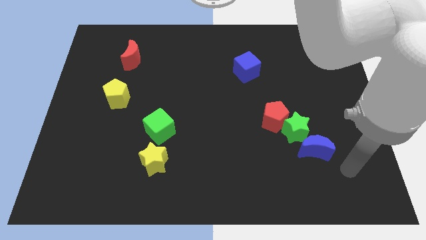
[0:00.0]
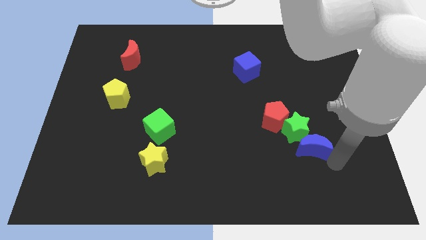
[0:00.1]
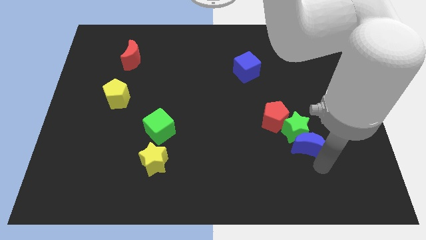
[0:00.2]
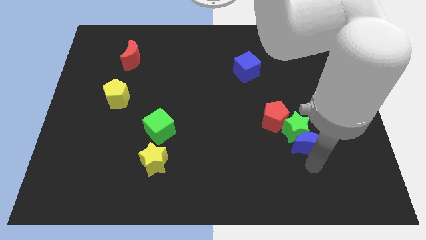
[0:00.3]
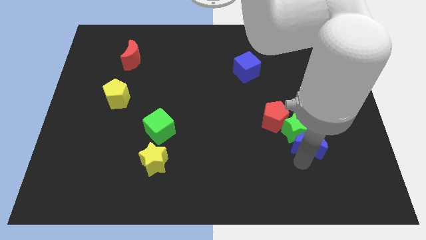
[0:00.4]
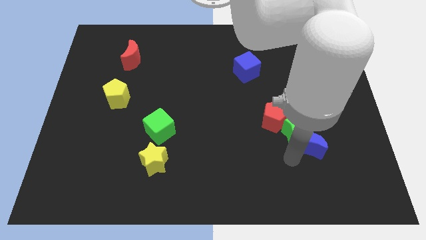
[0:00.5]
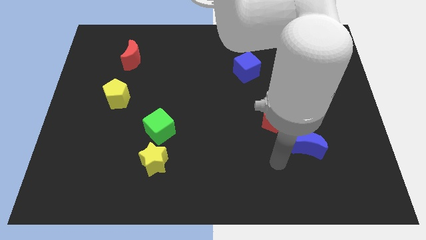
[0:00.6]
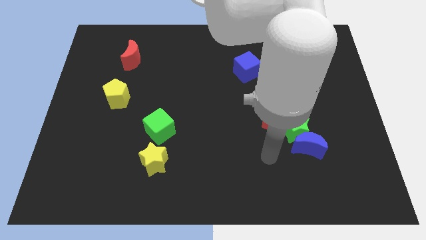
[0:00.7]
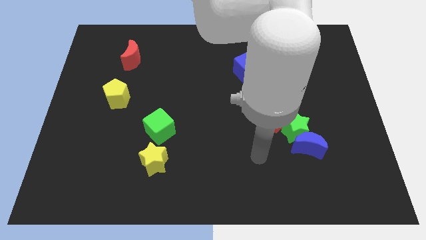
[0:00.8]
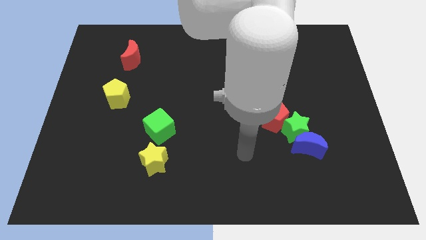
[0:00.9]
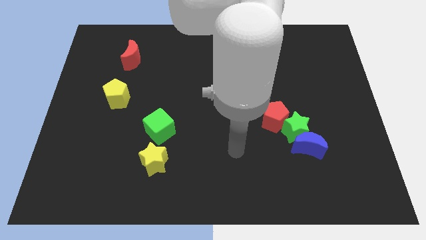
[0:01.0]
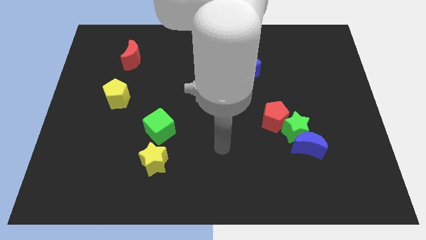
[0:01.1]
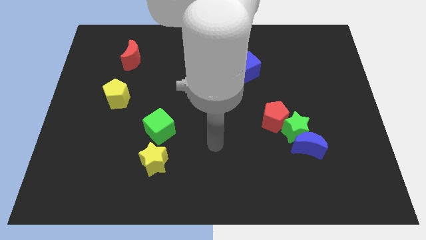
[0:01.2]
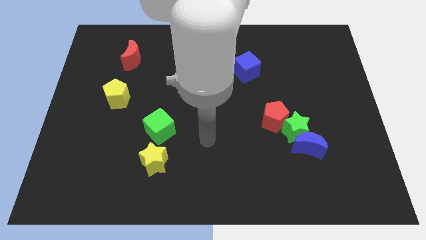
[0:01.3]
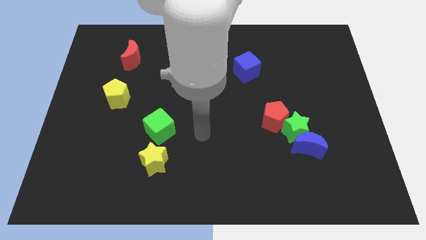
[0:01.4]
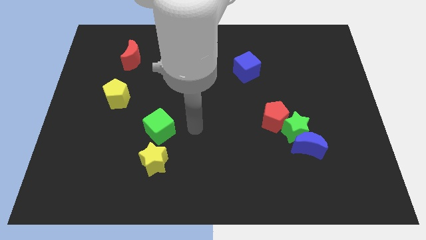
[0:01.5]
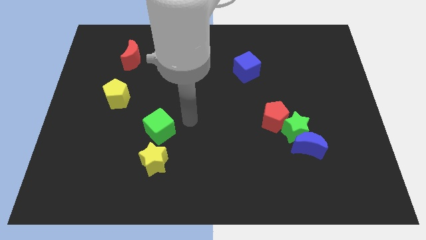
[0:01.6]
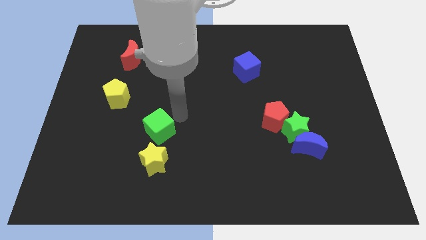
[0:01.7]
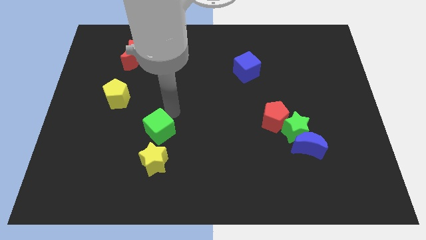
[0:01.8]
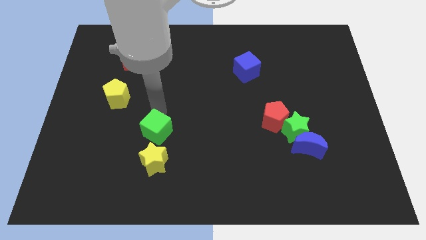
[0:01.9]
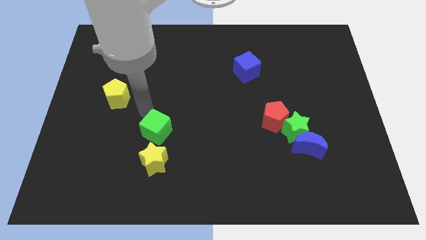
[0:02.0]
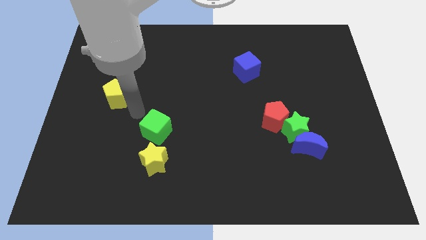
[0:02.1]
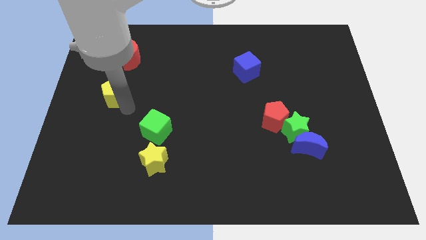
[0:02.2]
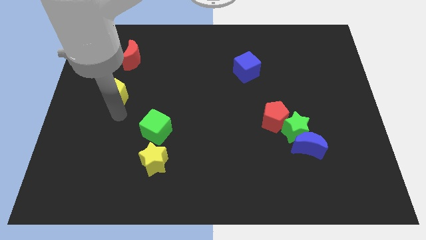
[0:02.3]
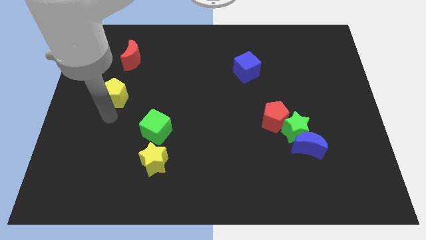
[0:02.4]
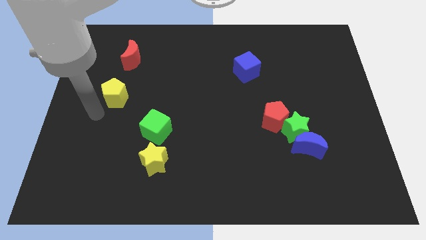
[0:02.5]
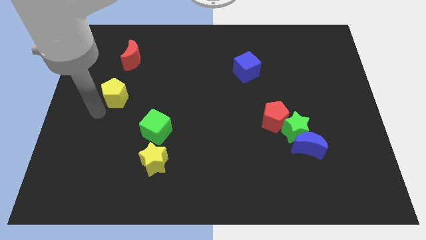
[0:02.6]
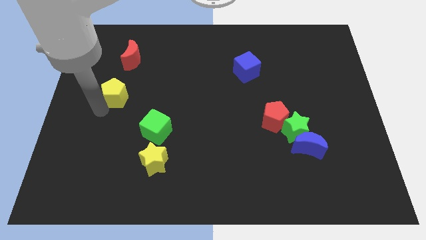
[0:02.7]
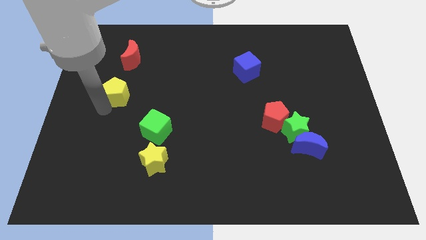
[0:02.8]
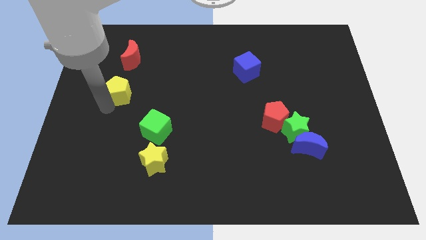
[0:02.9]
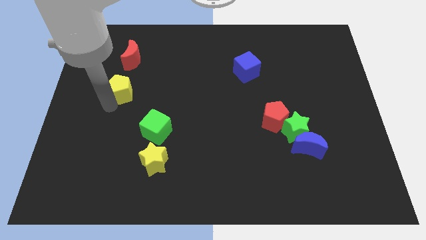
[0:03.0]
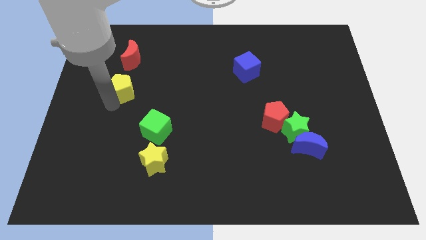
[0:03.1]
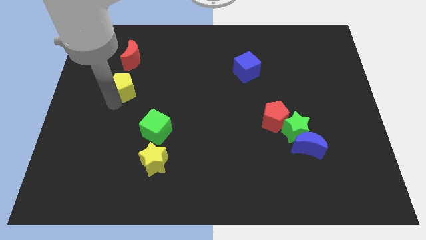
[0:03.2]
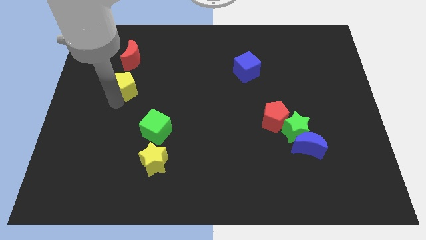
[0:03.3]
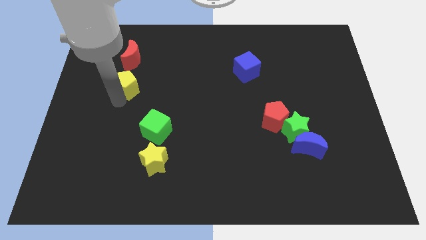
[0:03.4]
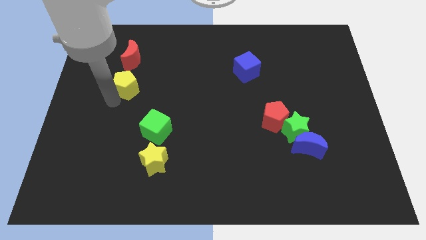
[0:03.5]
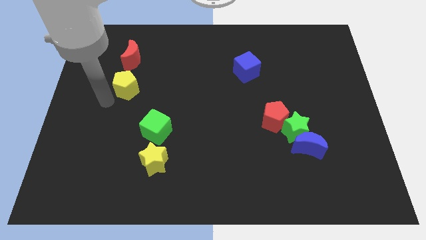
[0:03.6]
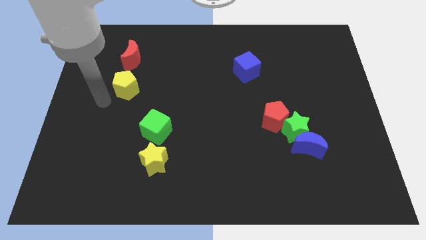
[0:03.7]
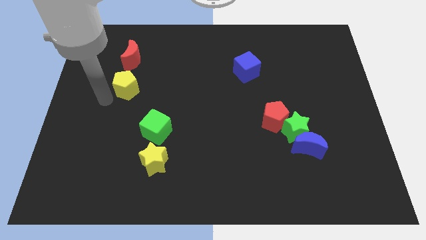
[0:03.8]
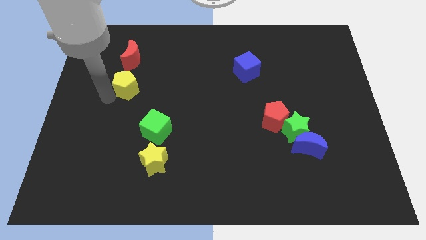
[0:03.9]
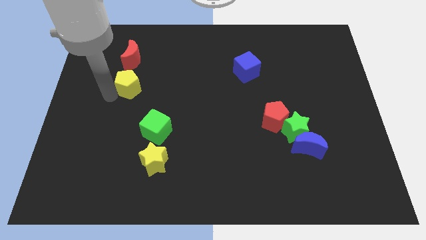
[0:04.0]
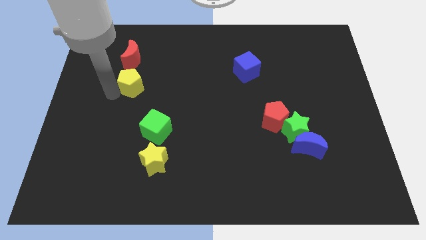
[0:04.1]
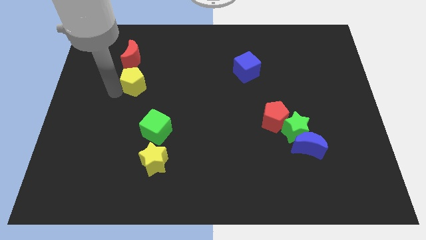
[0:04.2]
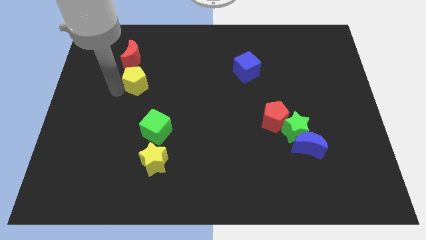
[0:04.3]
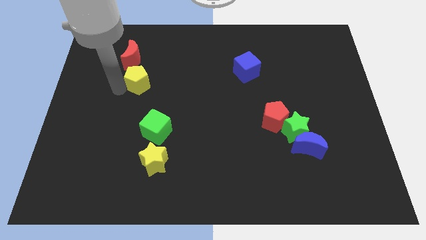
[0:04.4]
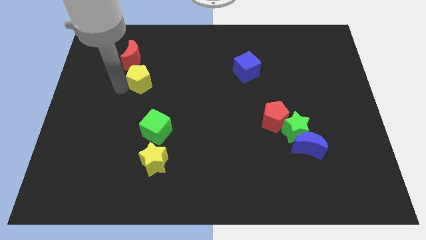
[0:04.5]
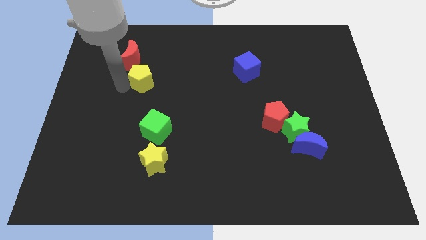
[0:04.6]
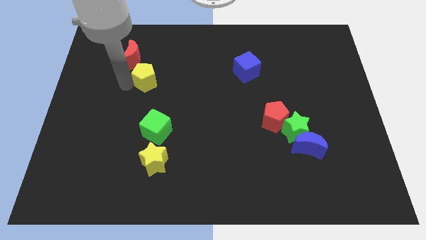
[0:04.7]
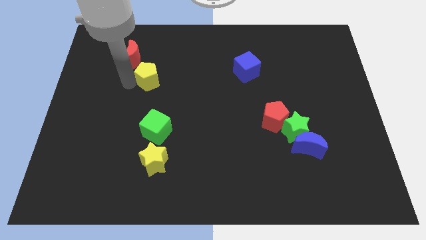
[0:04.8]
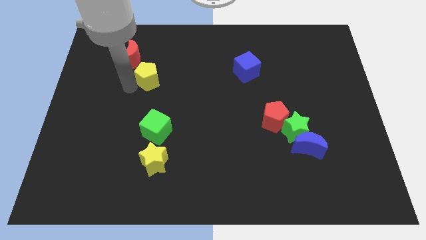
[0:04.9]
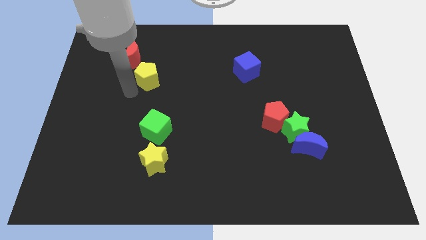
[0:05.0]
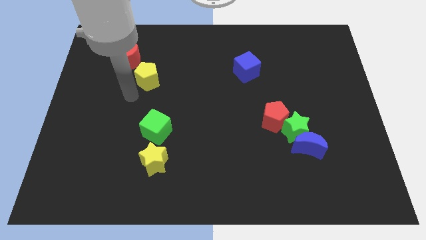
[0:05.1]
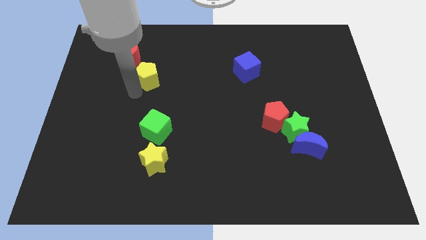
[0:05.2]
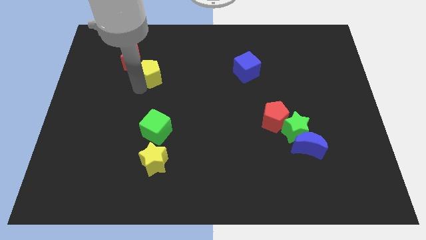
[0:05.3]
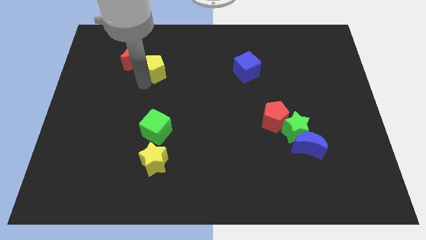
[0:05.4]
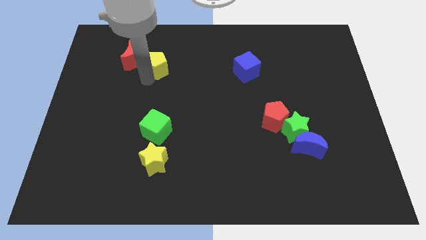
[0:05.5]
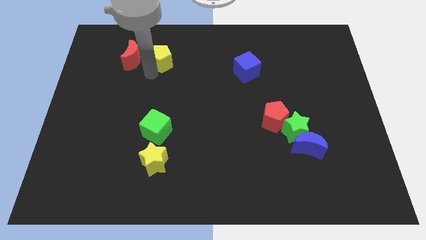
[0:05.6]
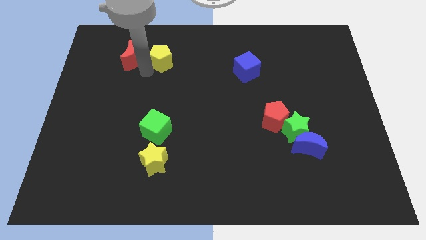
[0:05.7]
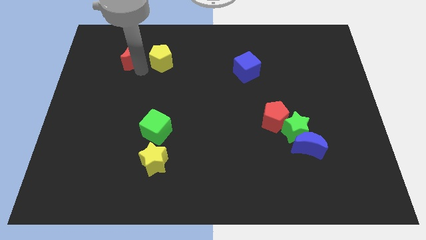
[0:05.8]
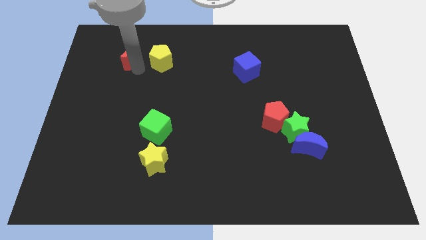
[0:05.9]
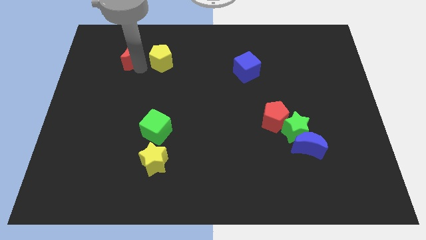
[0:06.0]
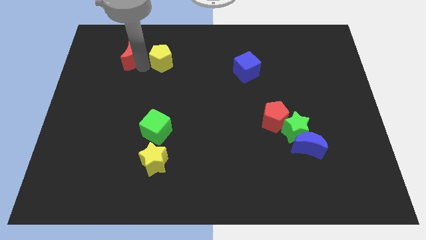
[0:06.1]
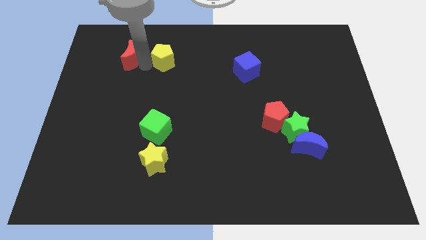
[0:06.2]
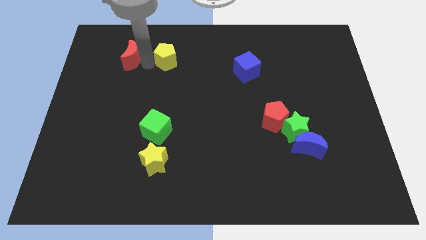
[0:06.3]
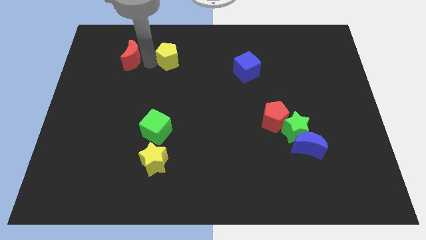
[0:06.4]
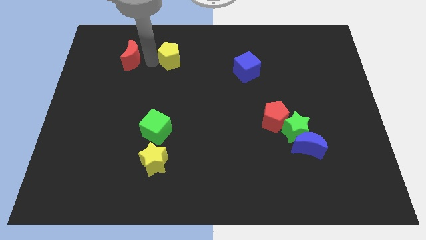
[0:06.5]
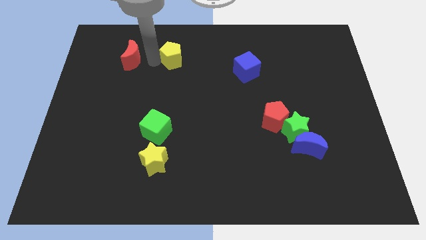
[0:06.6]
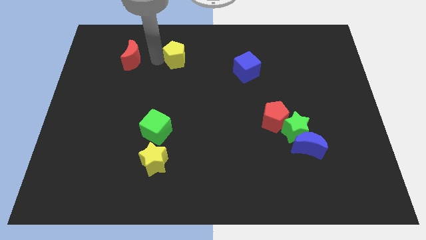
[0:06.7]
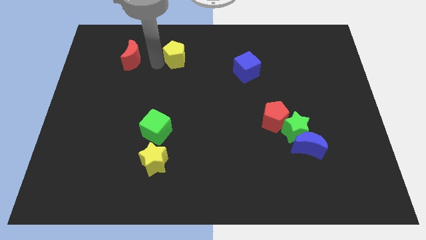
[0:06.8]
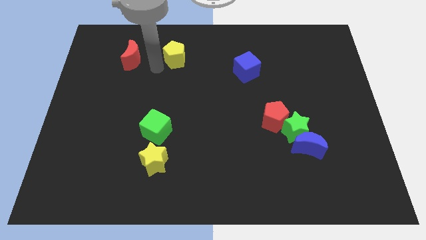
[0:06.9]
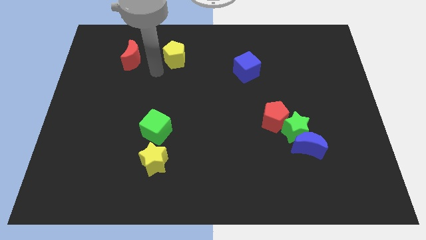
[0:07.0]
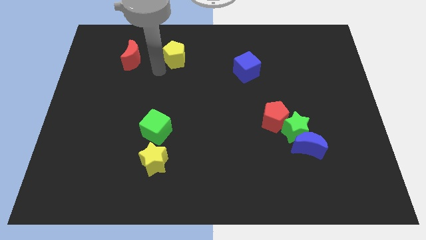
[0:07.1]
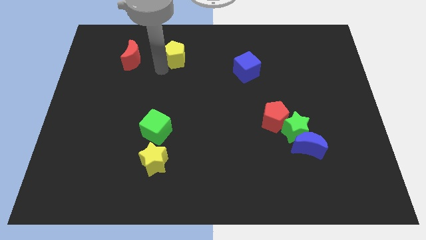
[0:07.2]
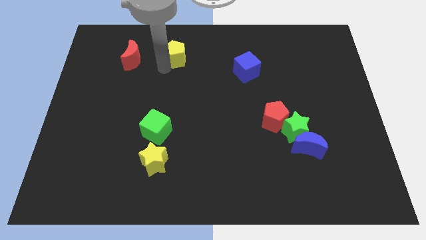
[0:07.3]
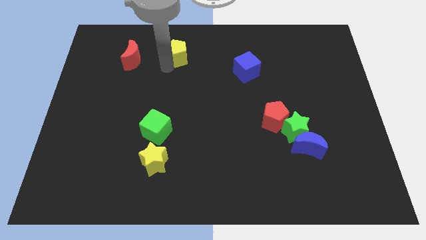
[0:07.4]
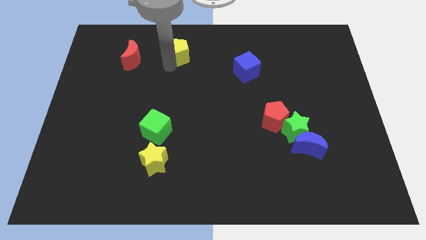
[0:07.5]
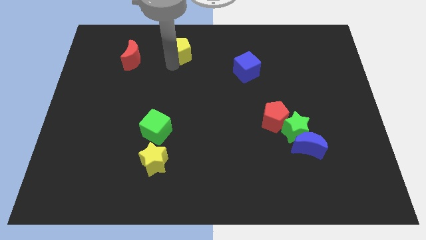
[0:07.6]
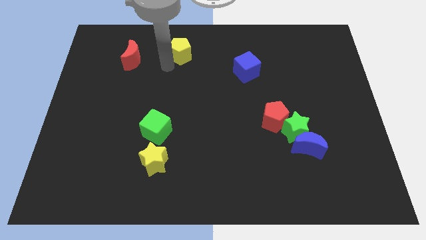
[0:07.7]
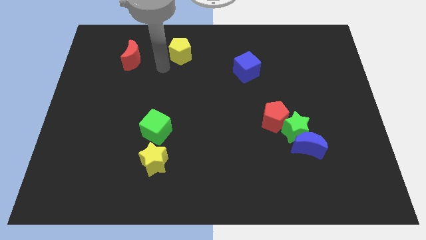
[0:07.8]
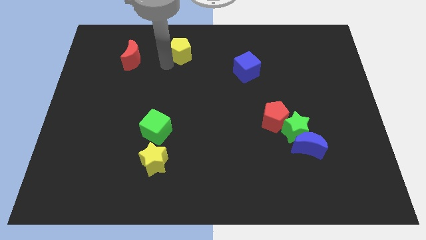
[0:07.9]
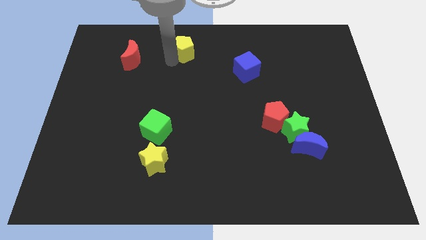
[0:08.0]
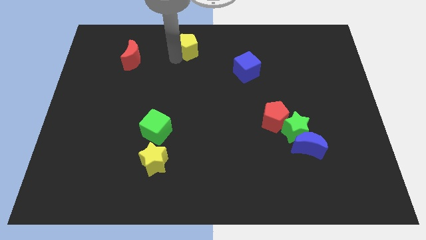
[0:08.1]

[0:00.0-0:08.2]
put the yellow pentagon to the top side
